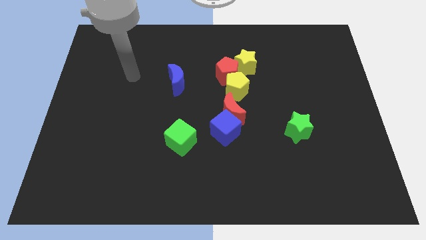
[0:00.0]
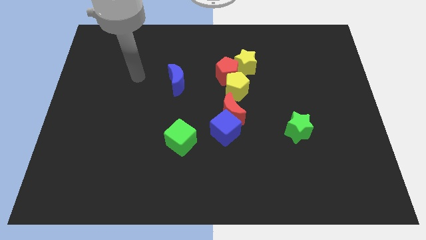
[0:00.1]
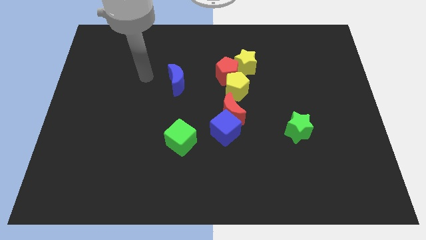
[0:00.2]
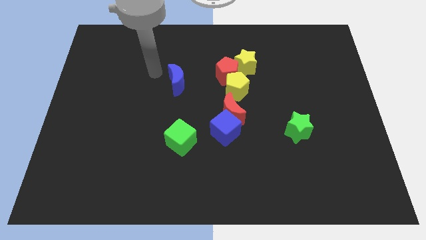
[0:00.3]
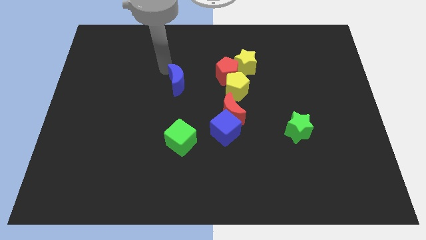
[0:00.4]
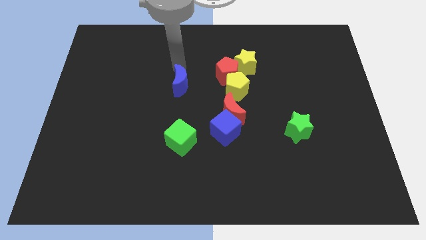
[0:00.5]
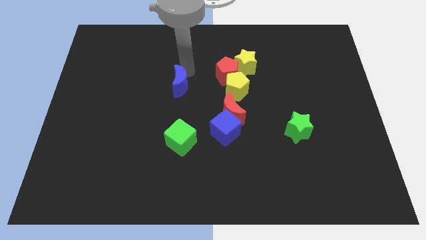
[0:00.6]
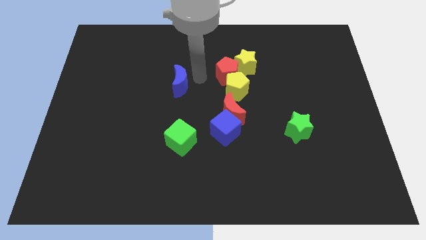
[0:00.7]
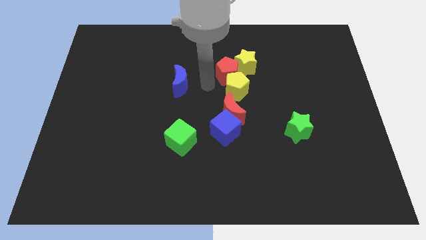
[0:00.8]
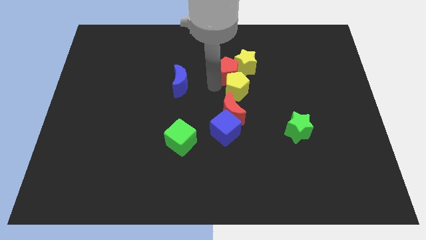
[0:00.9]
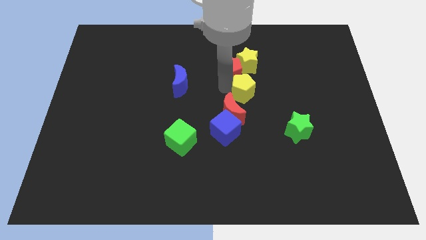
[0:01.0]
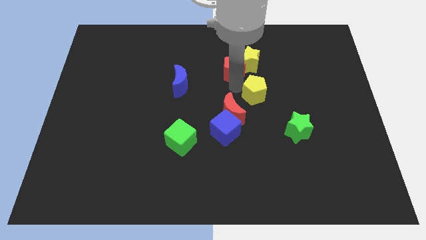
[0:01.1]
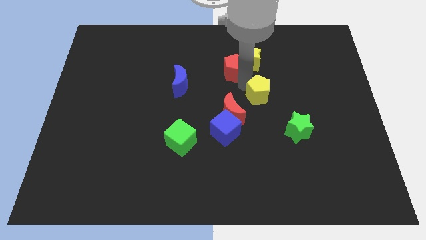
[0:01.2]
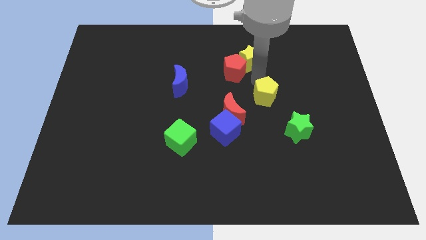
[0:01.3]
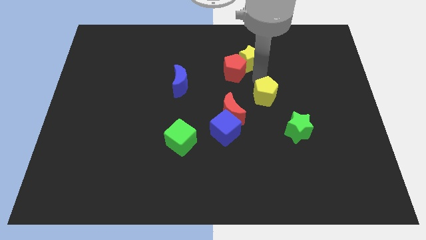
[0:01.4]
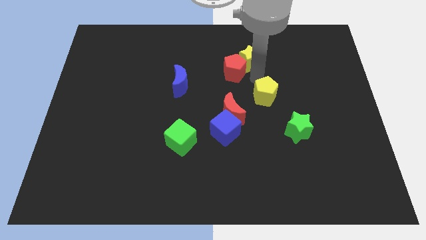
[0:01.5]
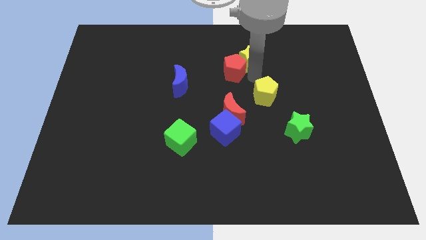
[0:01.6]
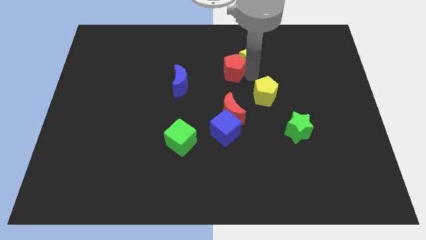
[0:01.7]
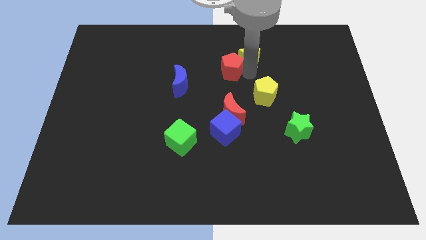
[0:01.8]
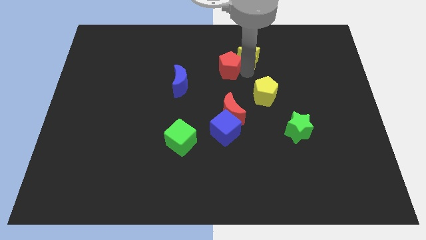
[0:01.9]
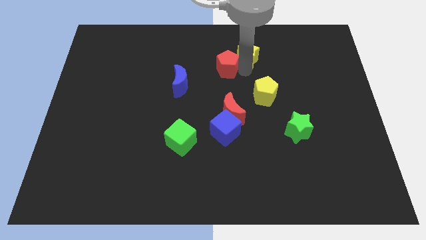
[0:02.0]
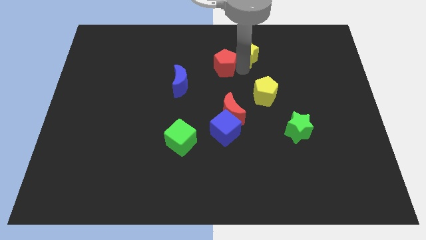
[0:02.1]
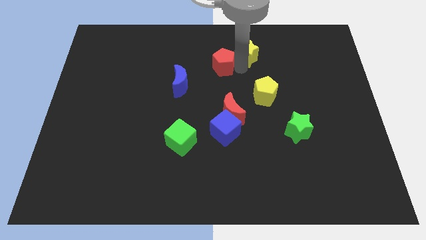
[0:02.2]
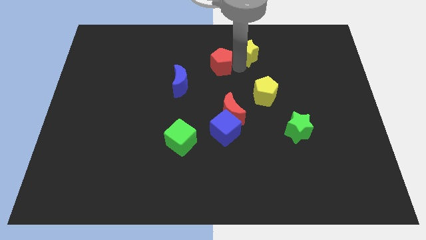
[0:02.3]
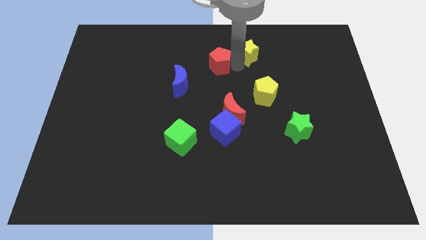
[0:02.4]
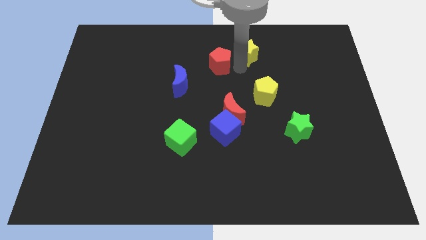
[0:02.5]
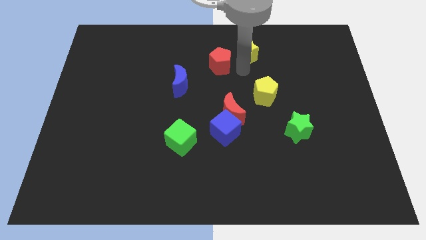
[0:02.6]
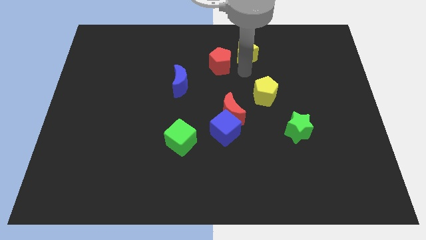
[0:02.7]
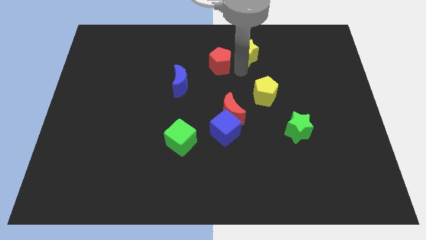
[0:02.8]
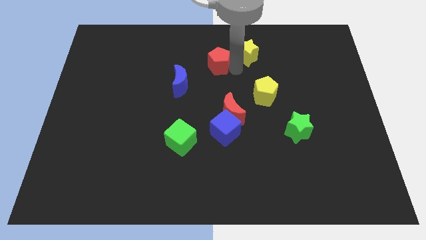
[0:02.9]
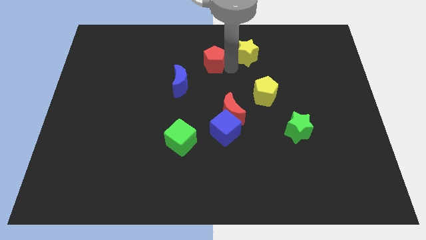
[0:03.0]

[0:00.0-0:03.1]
move the red pentagon away from the yellow star and yellow pentagon

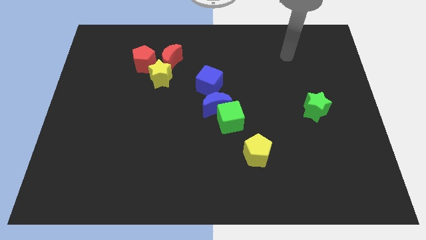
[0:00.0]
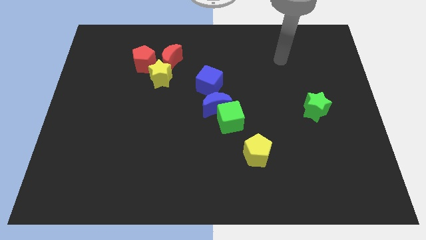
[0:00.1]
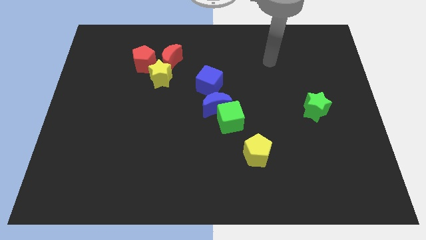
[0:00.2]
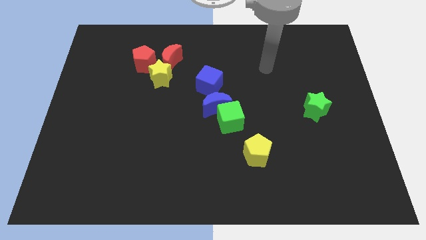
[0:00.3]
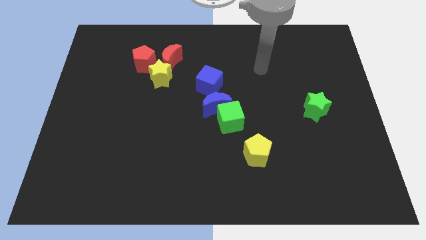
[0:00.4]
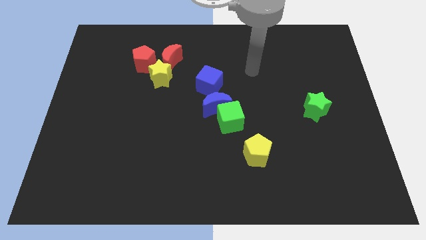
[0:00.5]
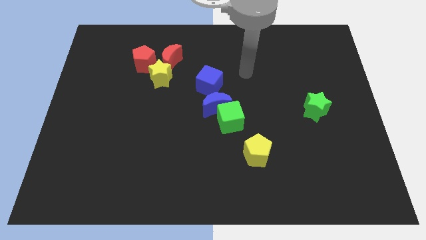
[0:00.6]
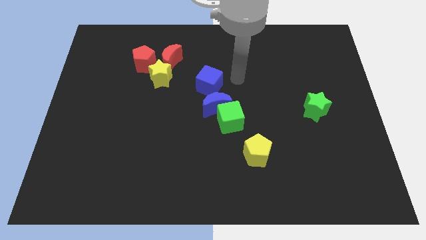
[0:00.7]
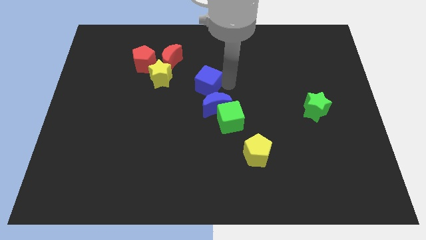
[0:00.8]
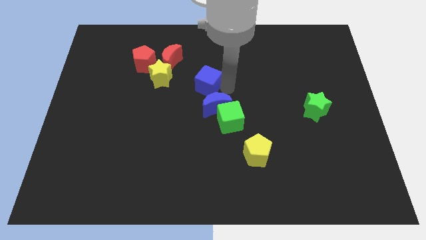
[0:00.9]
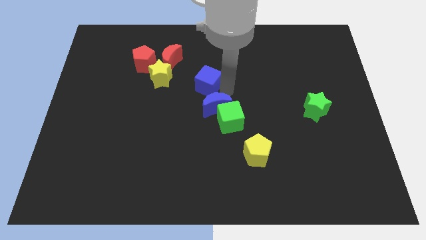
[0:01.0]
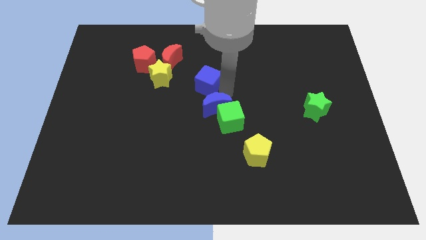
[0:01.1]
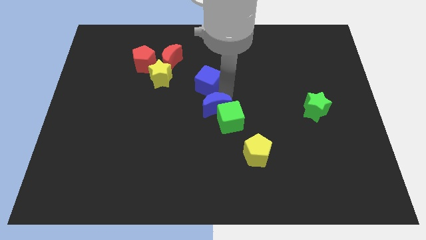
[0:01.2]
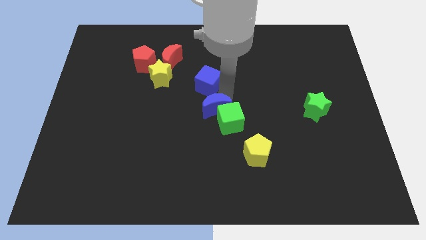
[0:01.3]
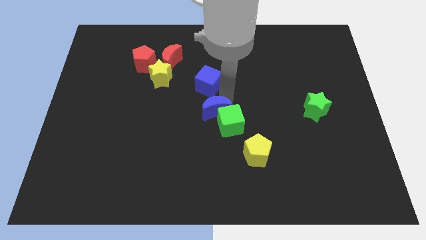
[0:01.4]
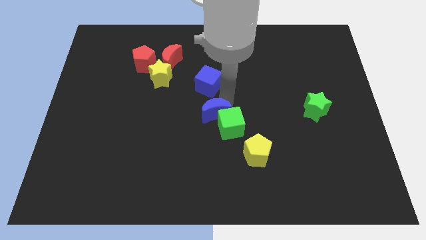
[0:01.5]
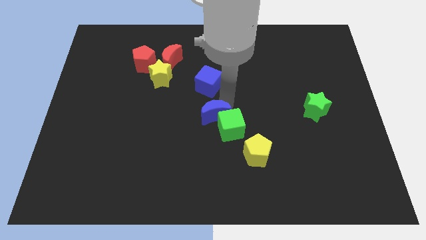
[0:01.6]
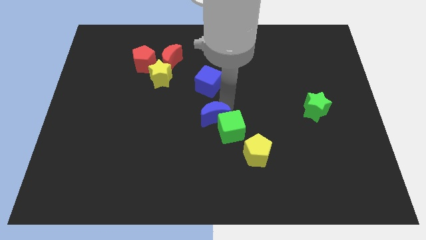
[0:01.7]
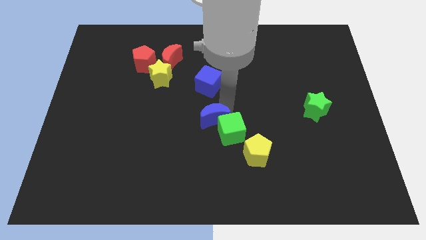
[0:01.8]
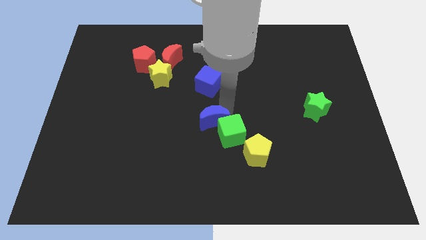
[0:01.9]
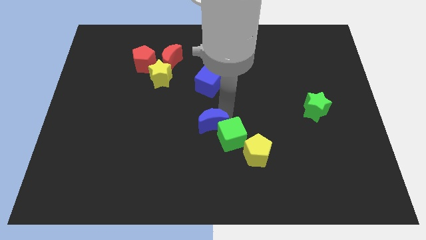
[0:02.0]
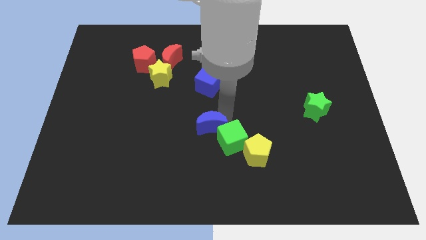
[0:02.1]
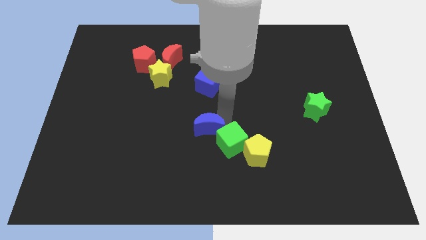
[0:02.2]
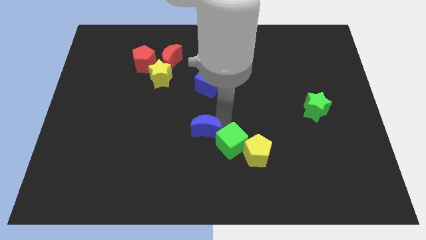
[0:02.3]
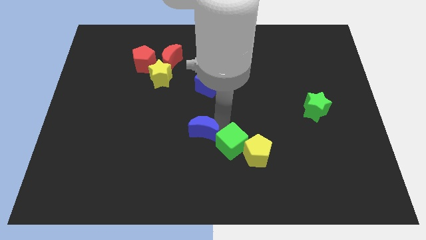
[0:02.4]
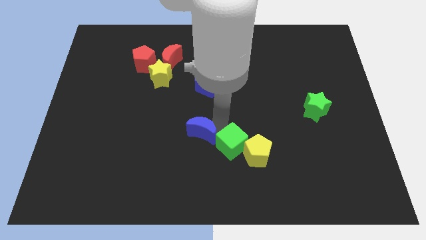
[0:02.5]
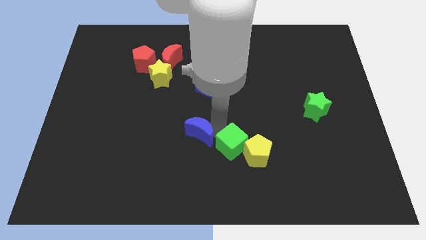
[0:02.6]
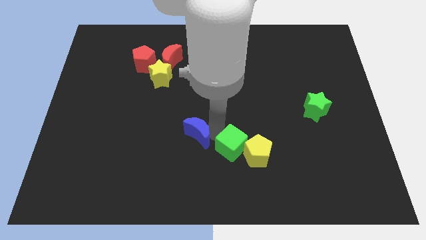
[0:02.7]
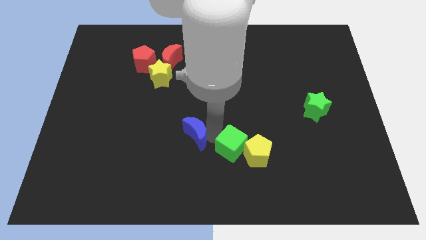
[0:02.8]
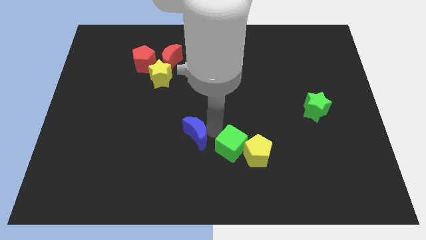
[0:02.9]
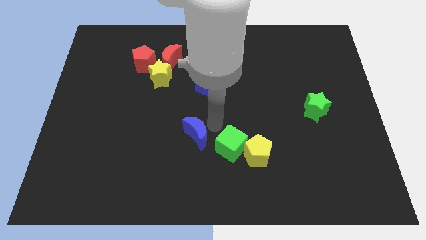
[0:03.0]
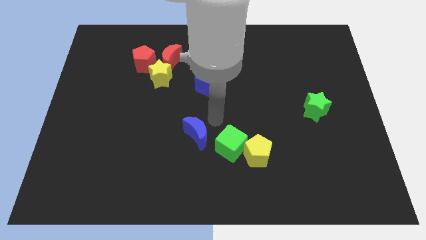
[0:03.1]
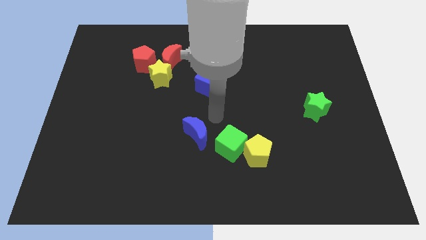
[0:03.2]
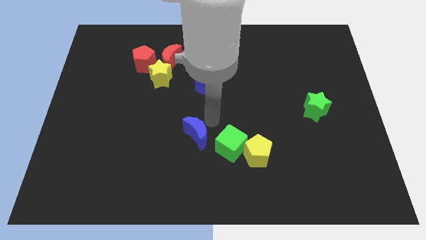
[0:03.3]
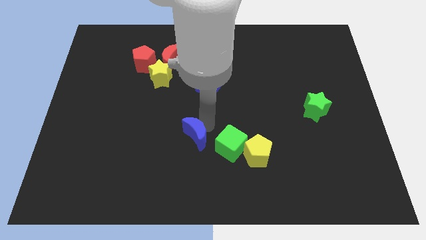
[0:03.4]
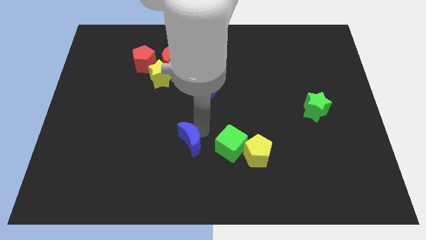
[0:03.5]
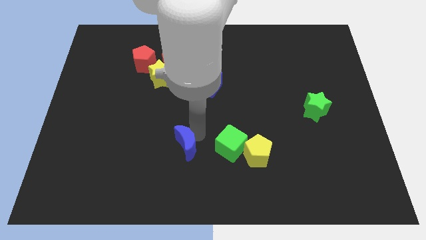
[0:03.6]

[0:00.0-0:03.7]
separate the blue moon from the green cube and blue cube

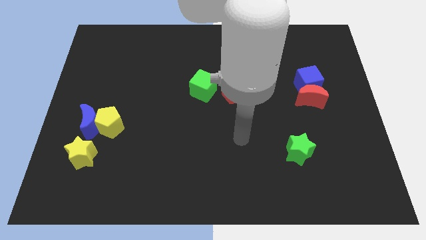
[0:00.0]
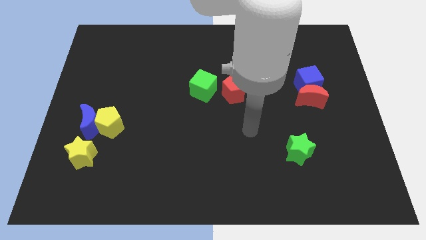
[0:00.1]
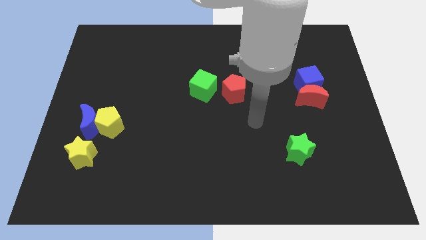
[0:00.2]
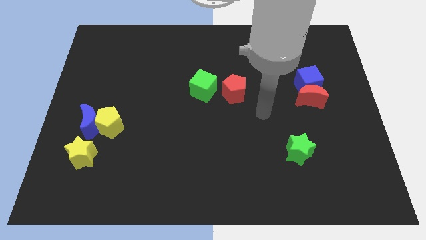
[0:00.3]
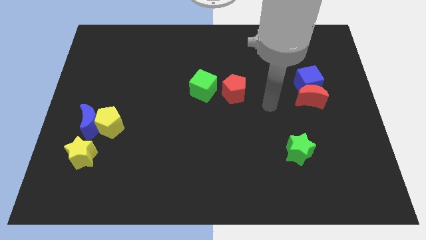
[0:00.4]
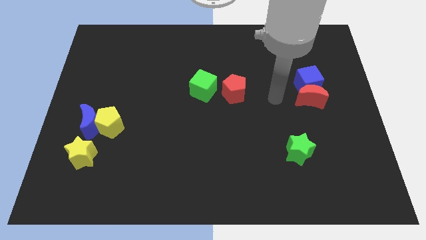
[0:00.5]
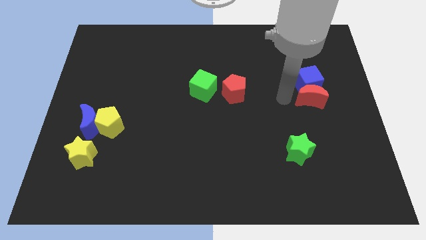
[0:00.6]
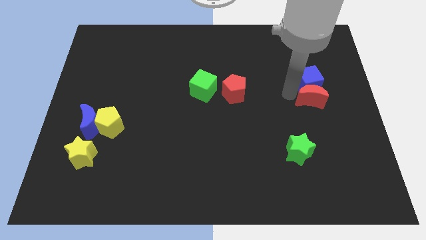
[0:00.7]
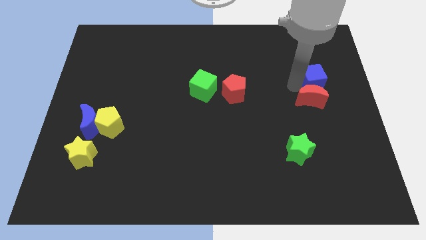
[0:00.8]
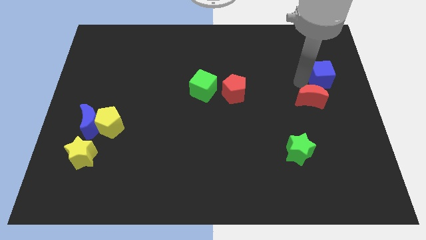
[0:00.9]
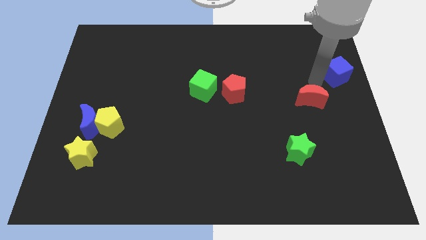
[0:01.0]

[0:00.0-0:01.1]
separate the red moon from the blue cube

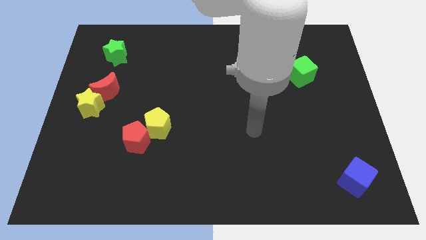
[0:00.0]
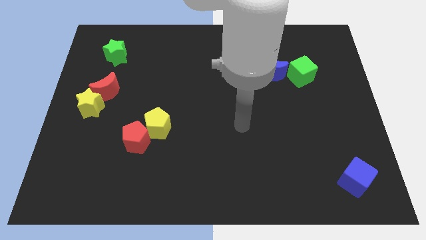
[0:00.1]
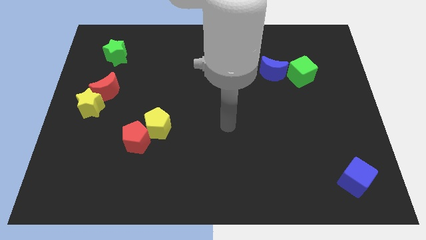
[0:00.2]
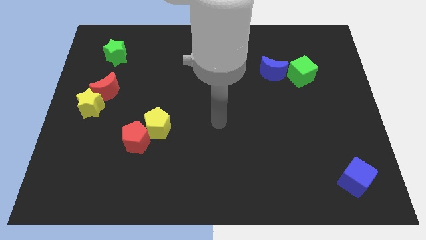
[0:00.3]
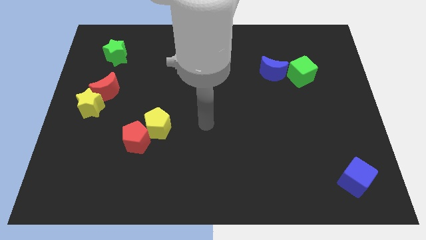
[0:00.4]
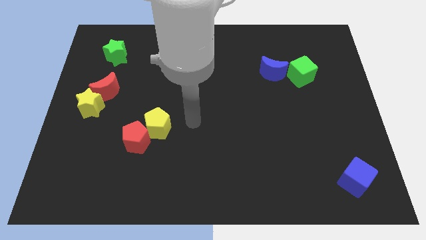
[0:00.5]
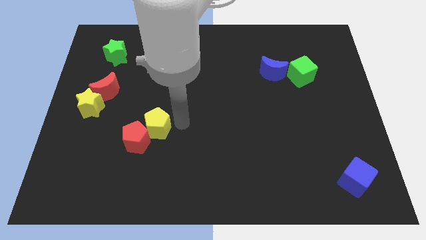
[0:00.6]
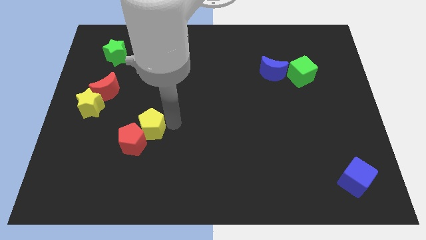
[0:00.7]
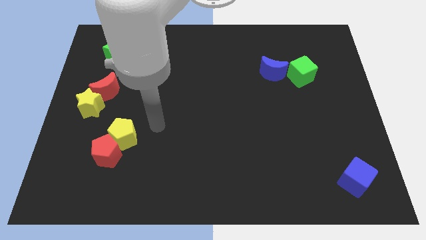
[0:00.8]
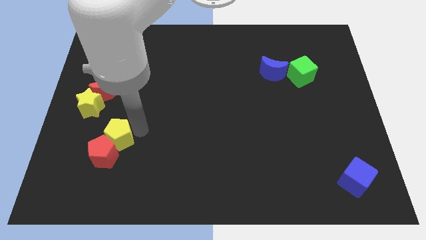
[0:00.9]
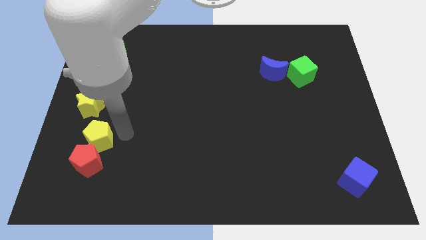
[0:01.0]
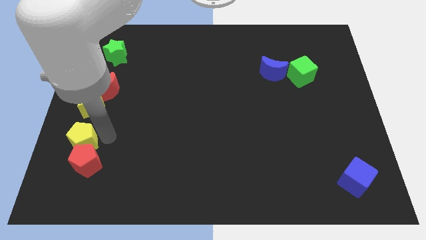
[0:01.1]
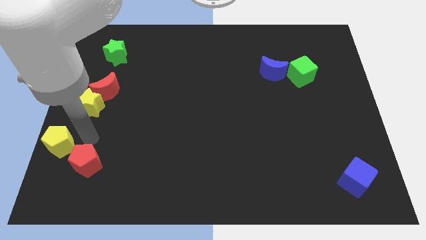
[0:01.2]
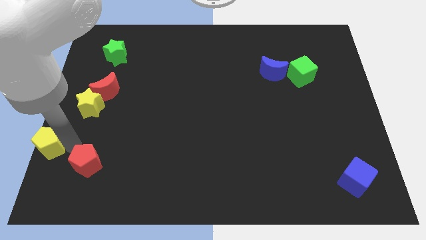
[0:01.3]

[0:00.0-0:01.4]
move the red pentagon away from the yellow pentagon
